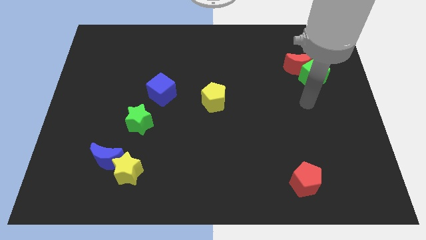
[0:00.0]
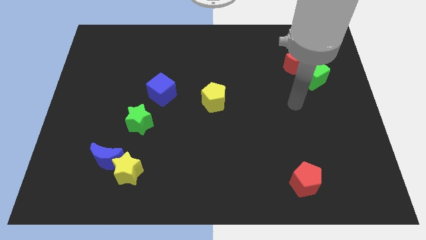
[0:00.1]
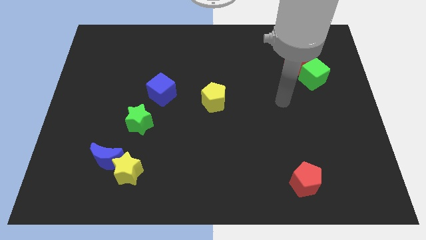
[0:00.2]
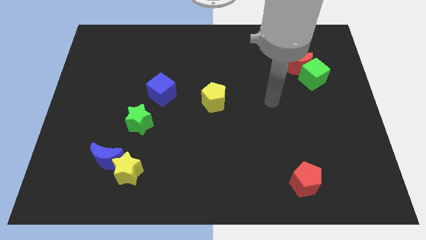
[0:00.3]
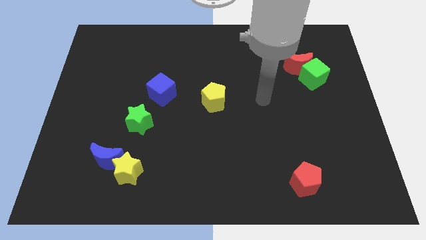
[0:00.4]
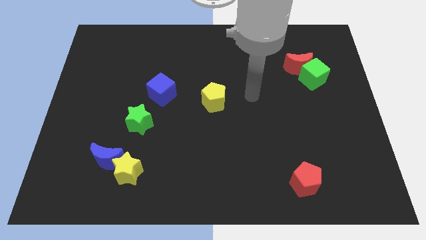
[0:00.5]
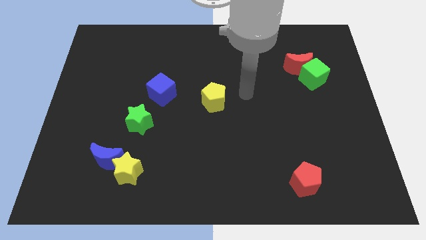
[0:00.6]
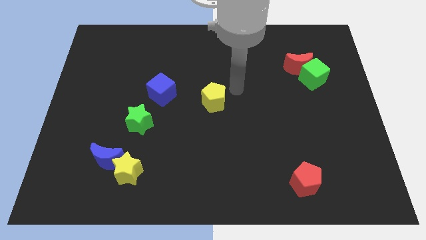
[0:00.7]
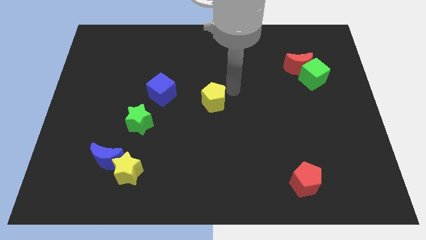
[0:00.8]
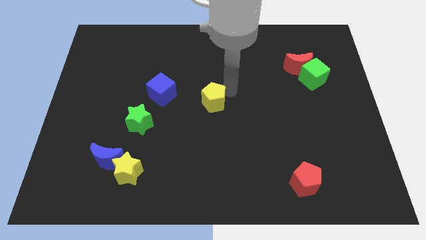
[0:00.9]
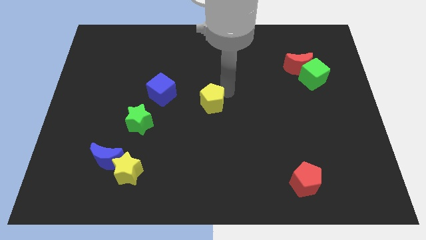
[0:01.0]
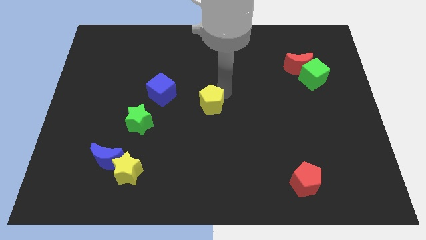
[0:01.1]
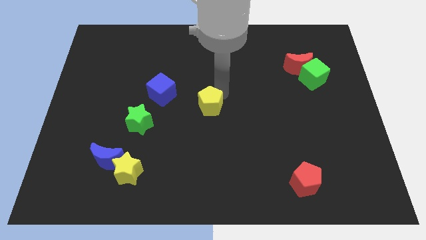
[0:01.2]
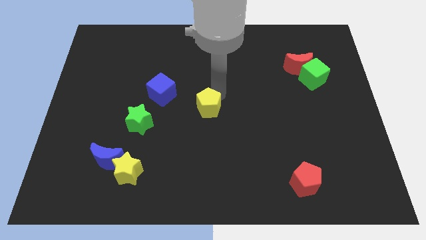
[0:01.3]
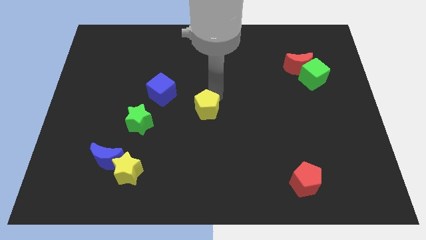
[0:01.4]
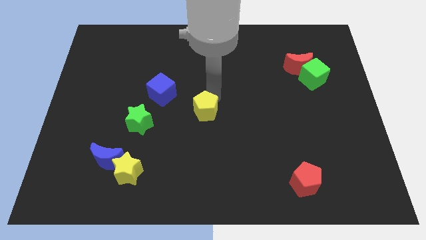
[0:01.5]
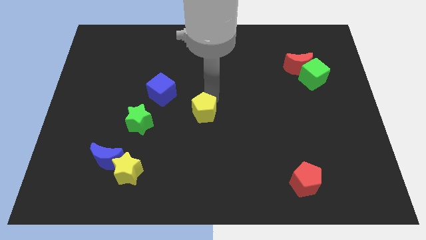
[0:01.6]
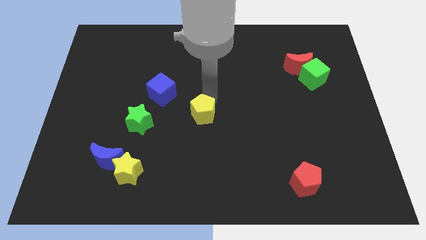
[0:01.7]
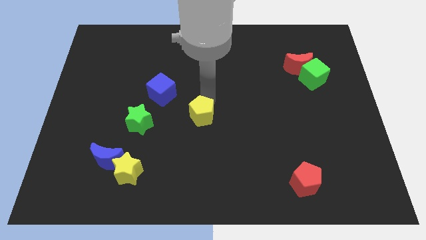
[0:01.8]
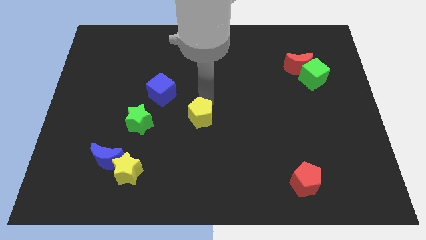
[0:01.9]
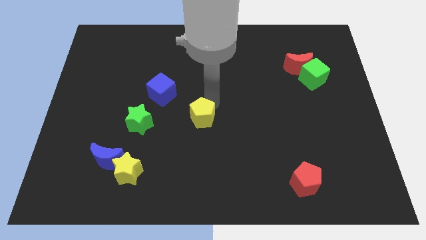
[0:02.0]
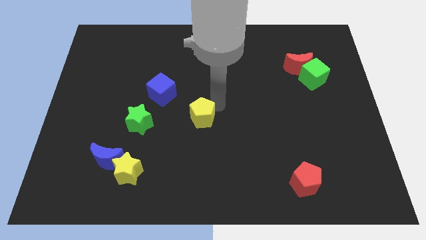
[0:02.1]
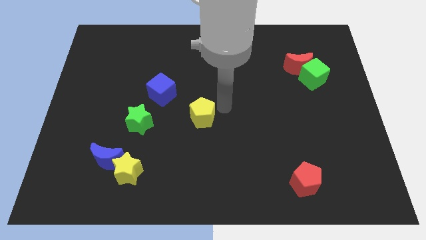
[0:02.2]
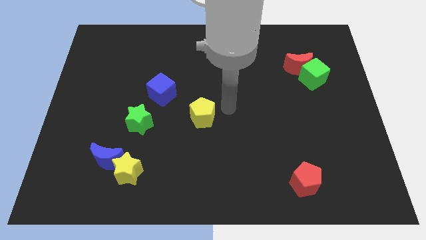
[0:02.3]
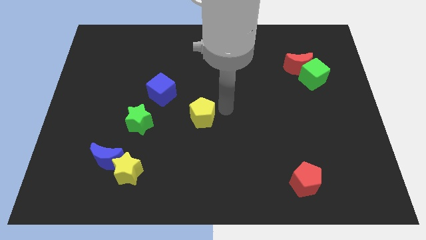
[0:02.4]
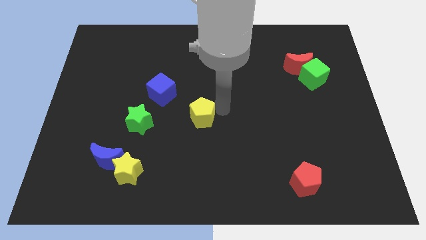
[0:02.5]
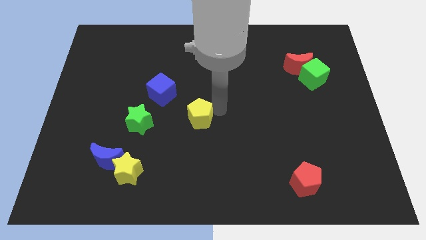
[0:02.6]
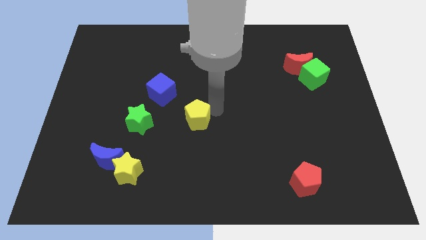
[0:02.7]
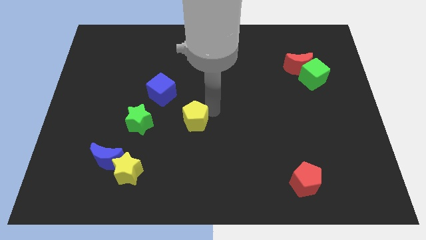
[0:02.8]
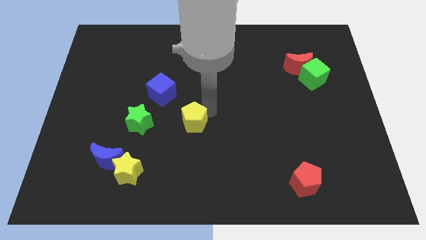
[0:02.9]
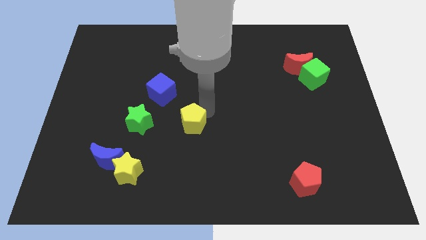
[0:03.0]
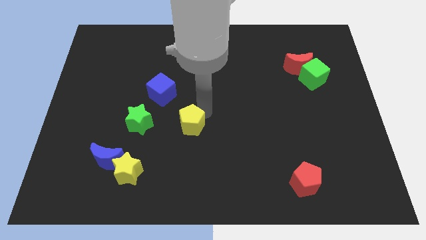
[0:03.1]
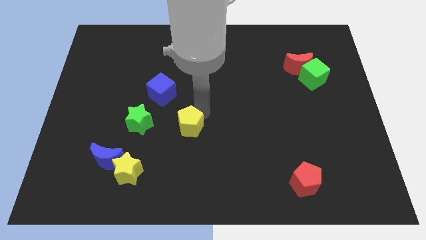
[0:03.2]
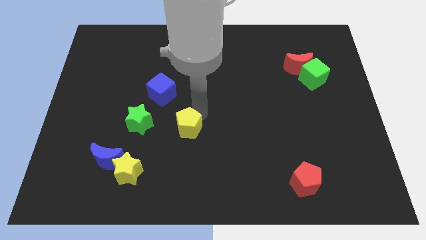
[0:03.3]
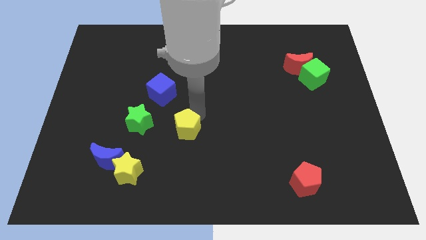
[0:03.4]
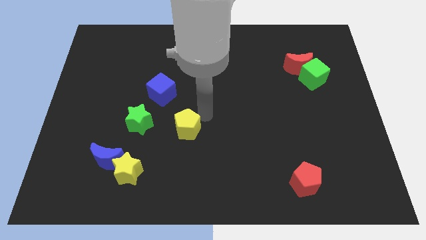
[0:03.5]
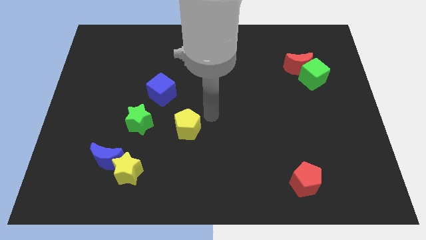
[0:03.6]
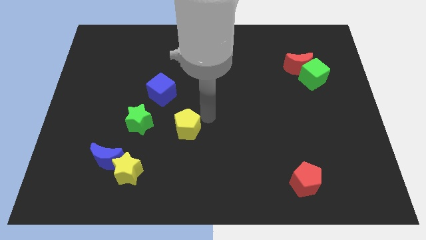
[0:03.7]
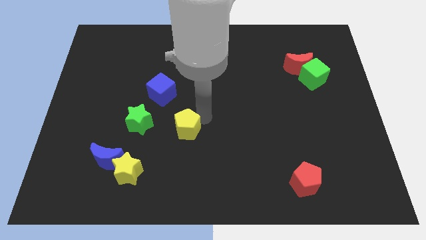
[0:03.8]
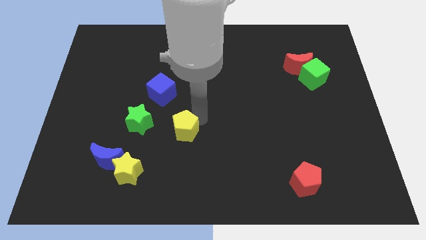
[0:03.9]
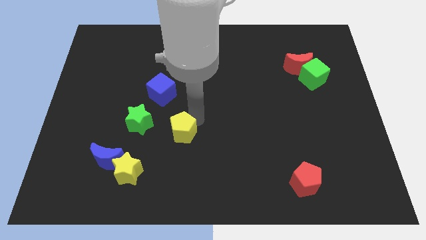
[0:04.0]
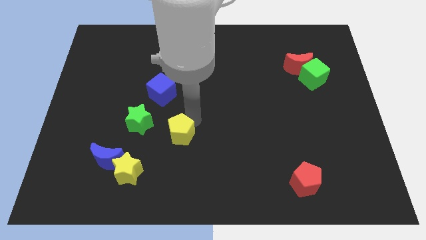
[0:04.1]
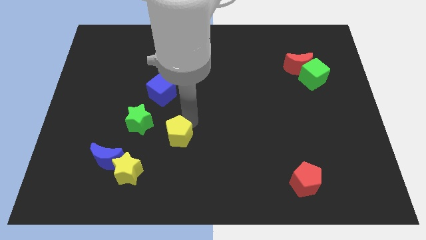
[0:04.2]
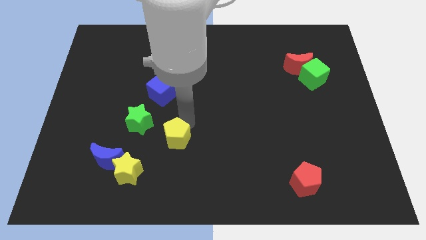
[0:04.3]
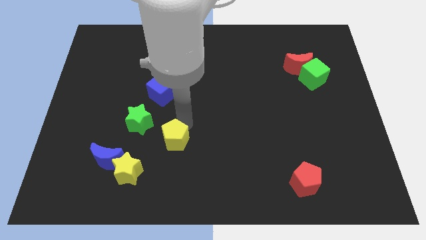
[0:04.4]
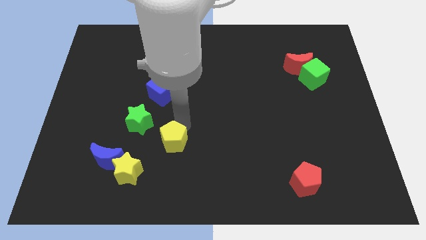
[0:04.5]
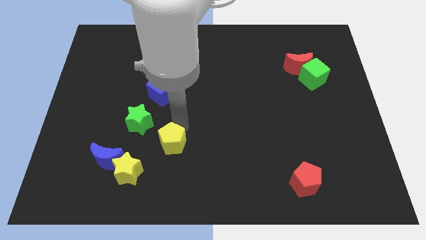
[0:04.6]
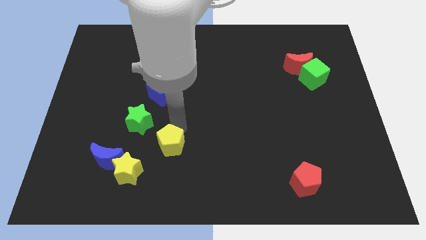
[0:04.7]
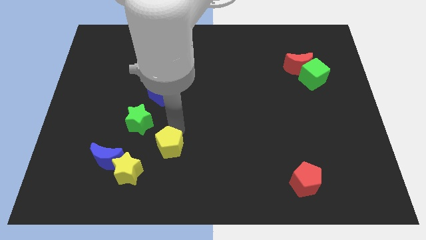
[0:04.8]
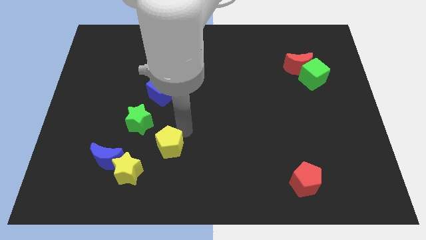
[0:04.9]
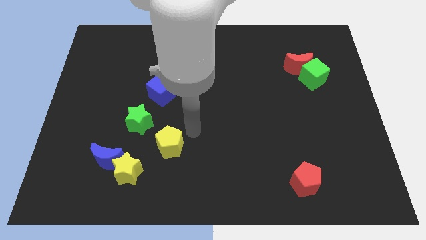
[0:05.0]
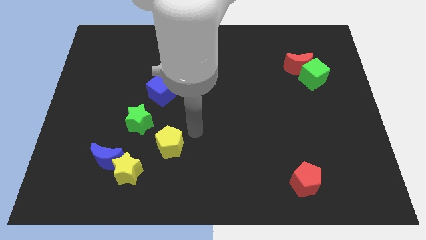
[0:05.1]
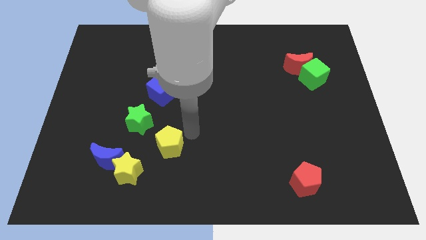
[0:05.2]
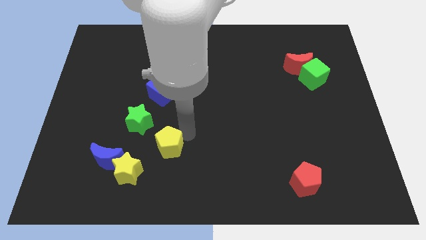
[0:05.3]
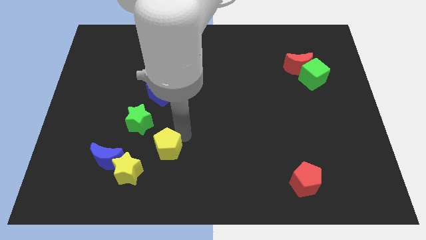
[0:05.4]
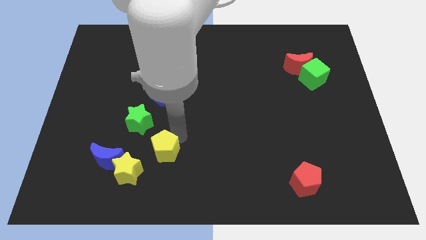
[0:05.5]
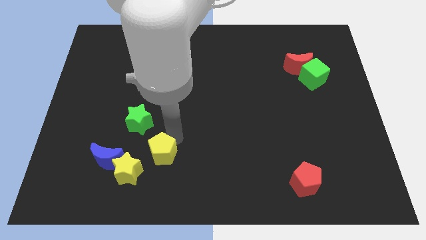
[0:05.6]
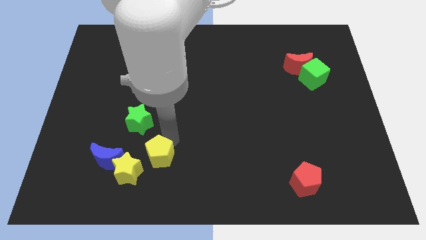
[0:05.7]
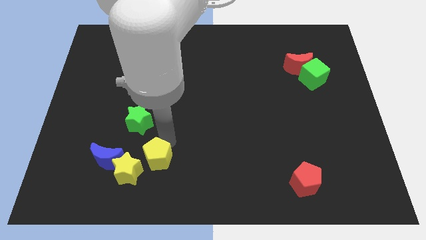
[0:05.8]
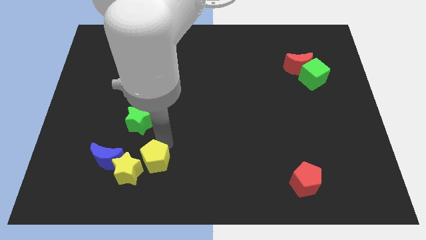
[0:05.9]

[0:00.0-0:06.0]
push the yellow pentagon next to the yellow star

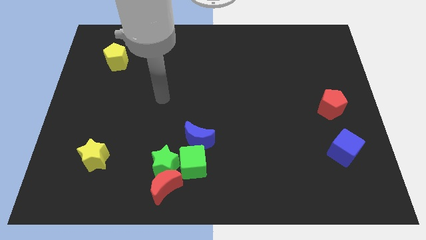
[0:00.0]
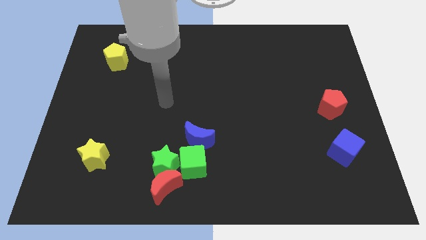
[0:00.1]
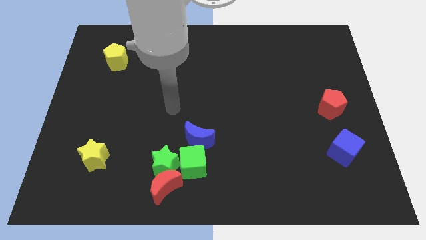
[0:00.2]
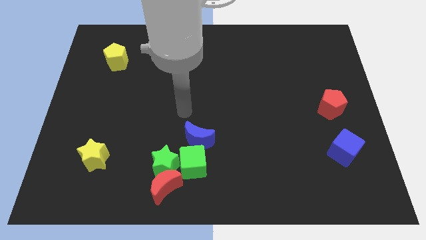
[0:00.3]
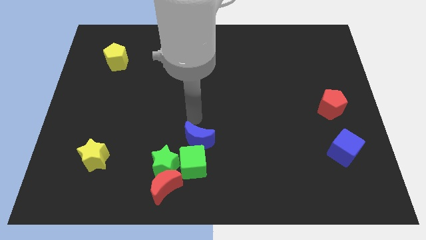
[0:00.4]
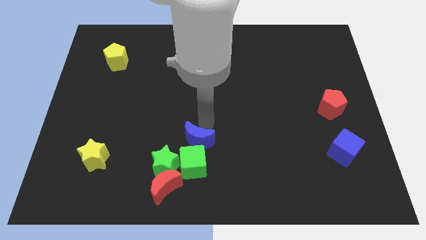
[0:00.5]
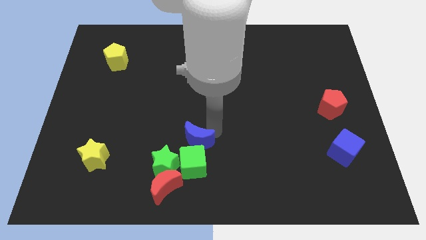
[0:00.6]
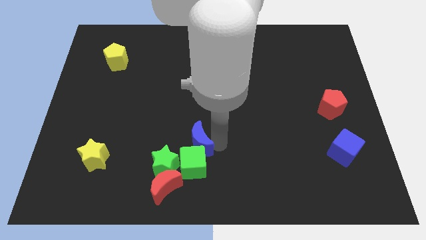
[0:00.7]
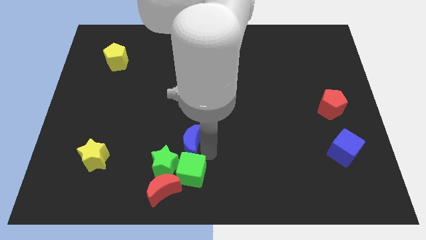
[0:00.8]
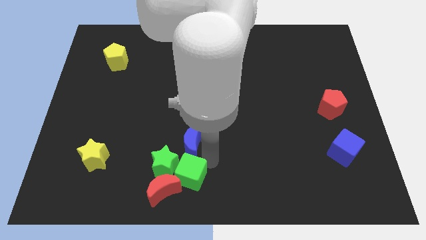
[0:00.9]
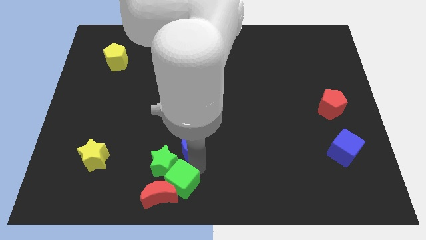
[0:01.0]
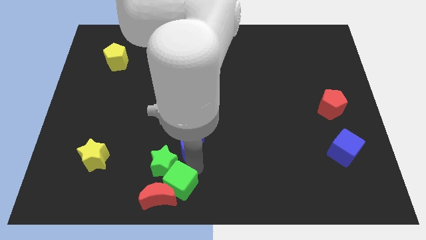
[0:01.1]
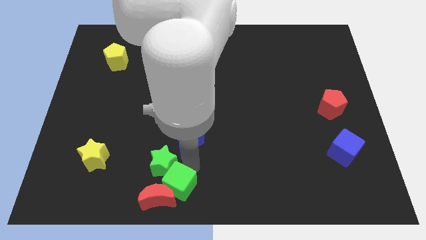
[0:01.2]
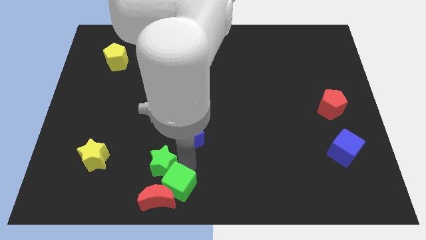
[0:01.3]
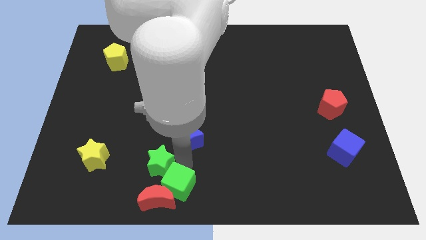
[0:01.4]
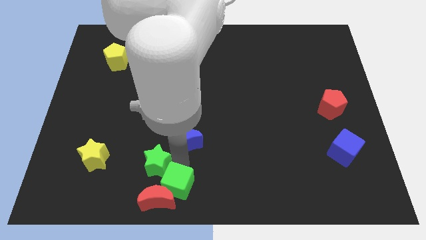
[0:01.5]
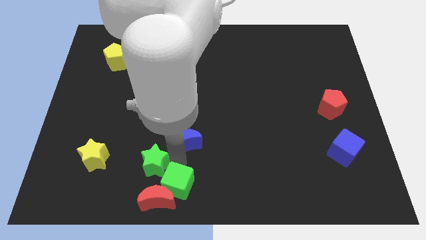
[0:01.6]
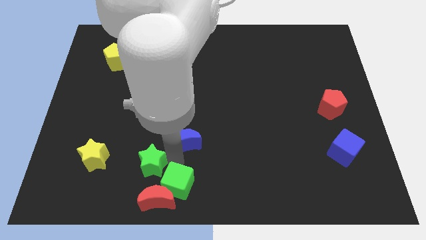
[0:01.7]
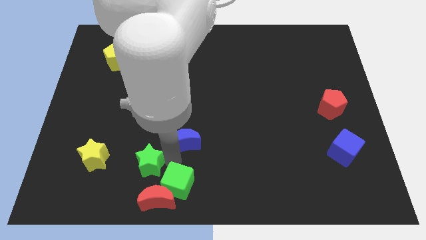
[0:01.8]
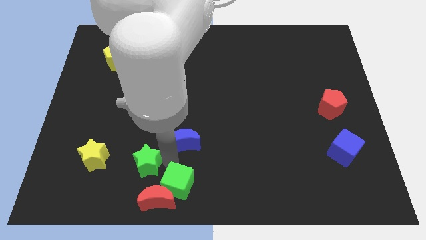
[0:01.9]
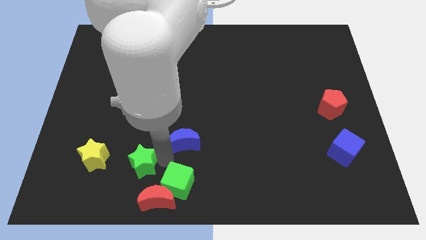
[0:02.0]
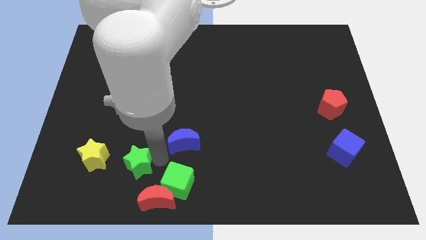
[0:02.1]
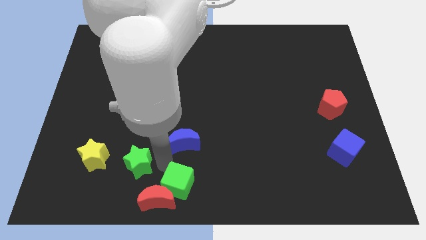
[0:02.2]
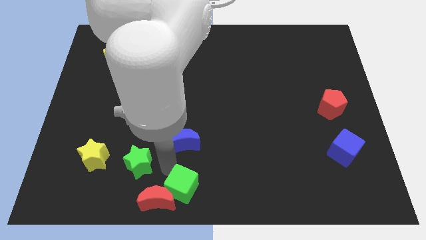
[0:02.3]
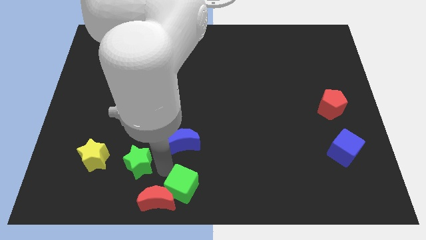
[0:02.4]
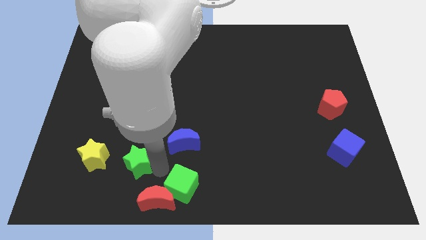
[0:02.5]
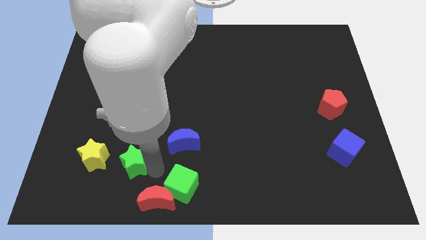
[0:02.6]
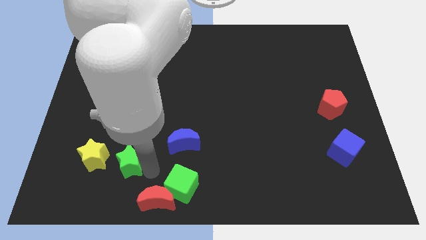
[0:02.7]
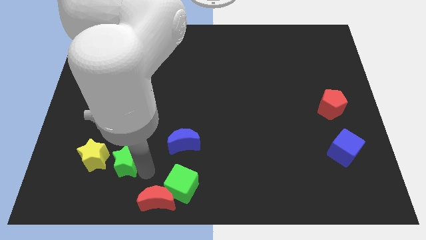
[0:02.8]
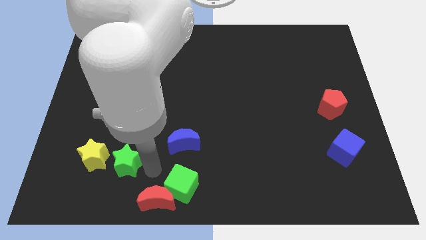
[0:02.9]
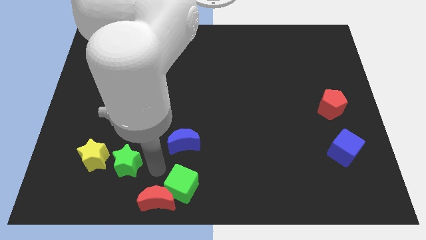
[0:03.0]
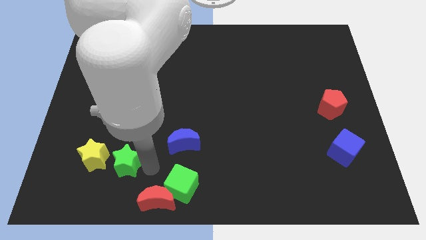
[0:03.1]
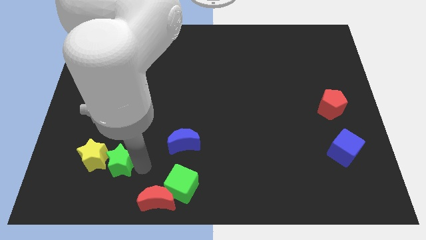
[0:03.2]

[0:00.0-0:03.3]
slide the green star to the yellow star
